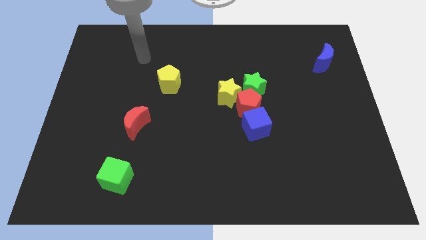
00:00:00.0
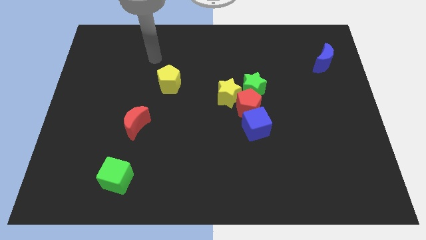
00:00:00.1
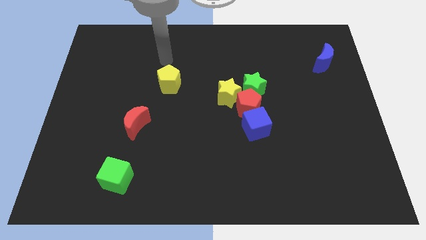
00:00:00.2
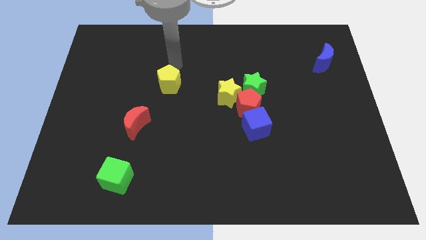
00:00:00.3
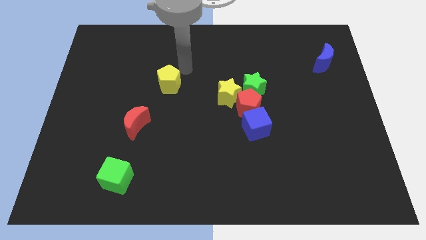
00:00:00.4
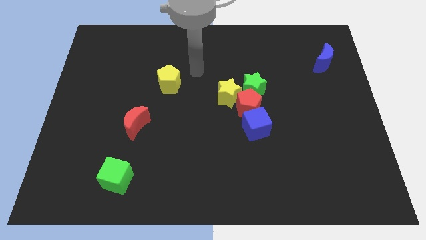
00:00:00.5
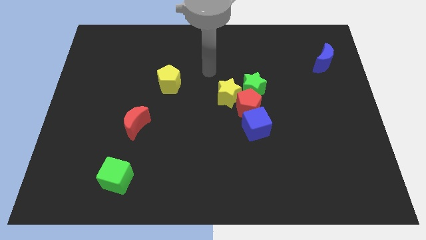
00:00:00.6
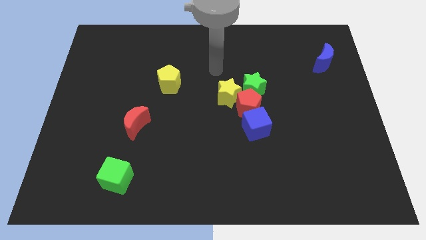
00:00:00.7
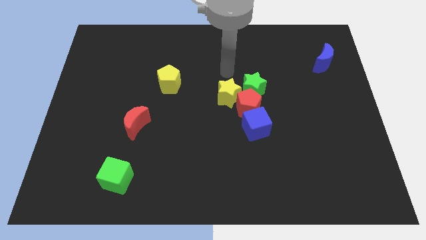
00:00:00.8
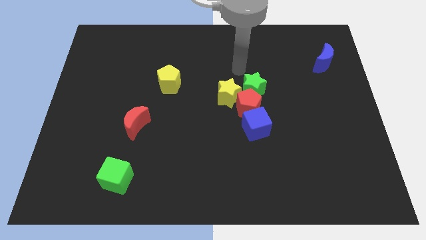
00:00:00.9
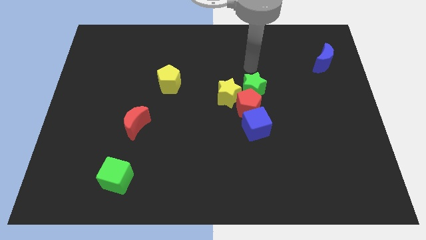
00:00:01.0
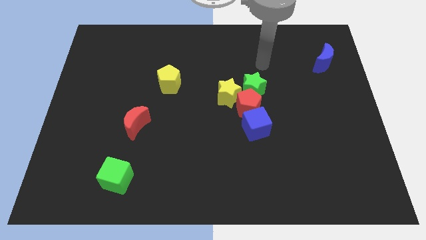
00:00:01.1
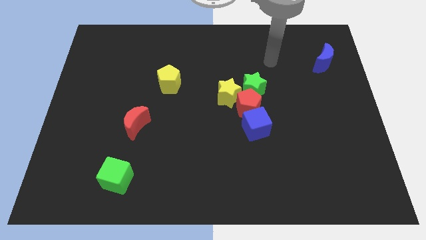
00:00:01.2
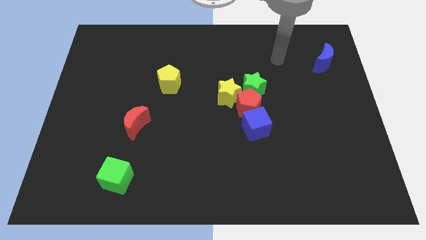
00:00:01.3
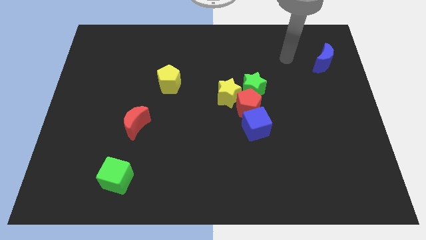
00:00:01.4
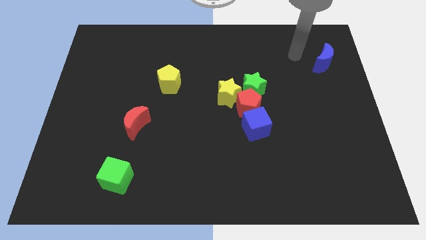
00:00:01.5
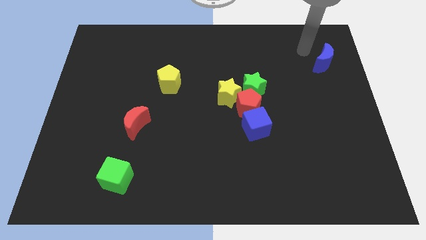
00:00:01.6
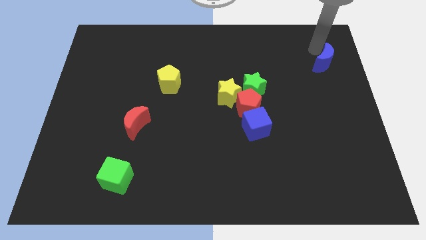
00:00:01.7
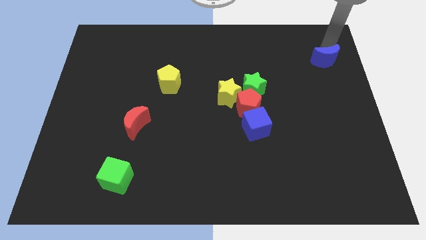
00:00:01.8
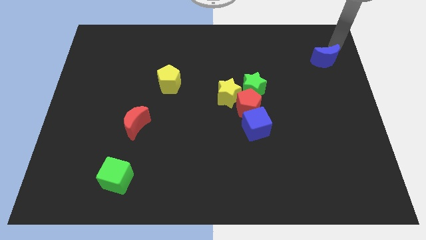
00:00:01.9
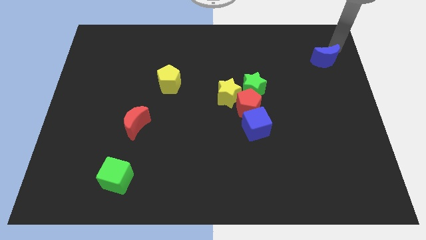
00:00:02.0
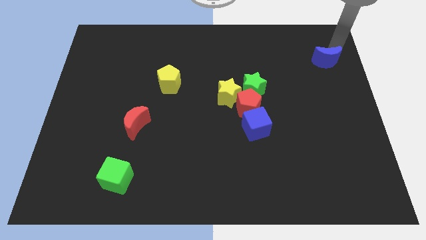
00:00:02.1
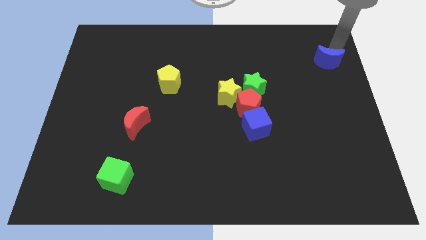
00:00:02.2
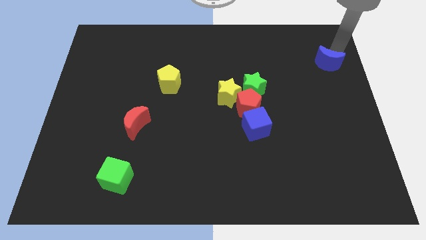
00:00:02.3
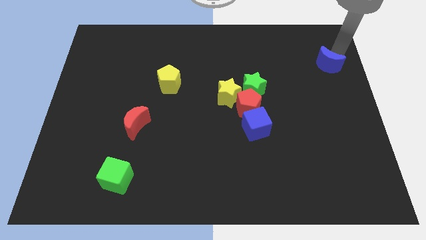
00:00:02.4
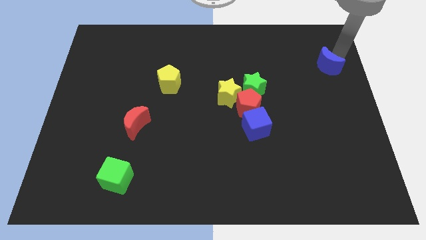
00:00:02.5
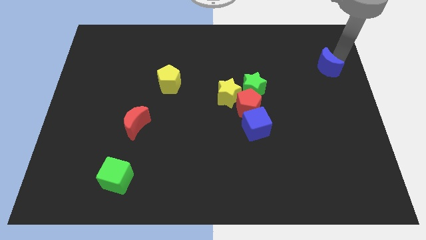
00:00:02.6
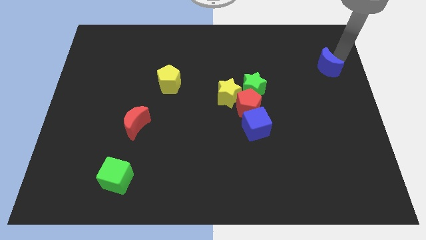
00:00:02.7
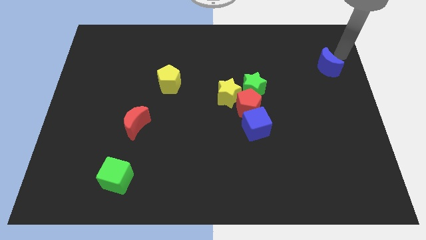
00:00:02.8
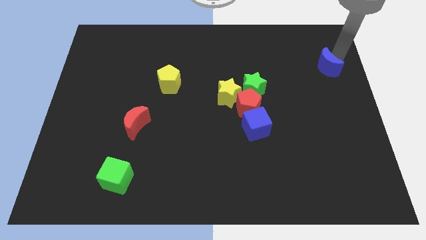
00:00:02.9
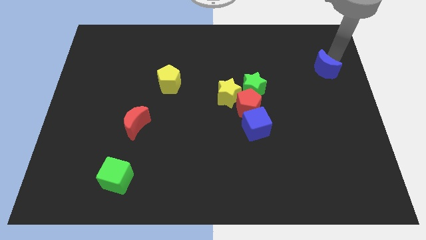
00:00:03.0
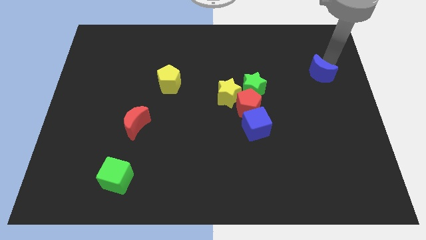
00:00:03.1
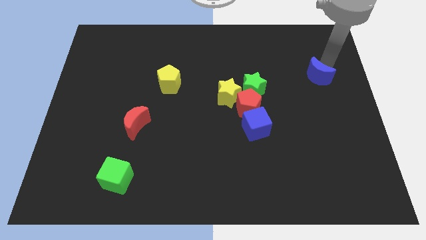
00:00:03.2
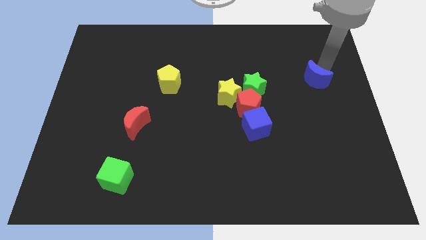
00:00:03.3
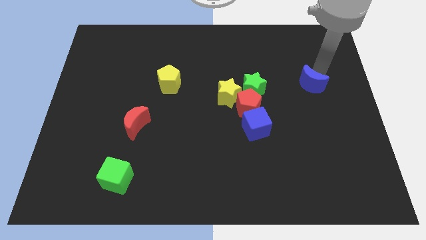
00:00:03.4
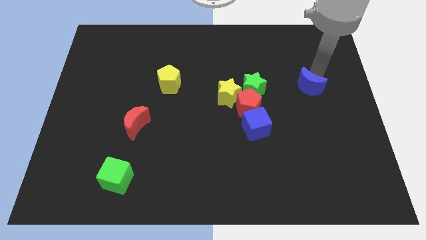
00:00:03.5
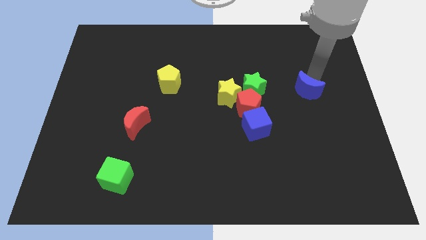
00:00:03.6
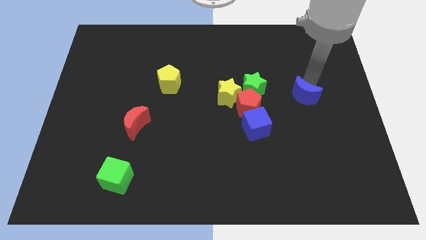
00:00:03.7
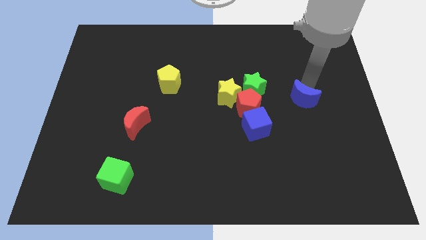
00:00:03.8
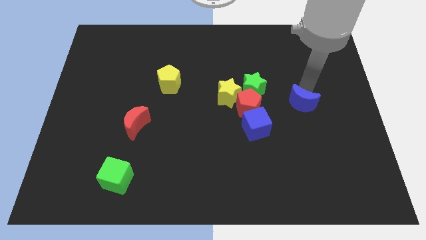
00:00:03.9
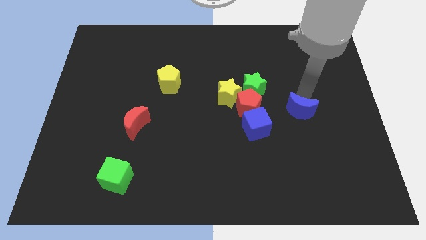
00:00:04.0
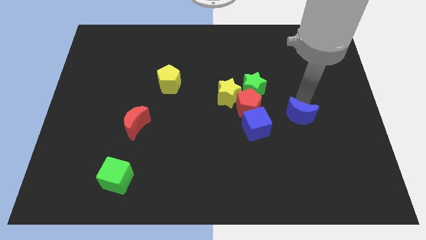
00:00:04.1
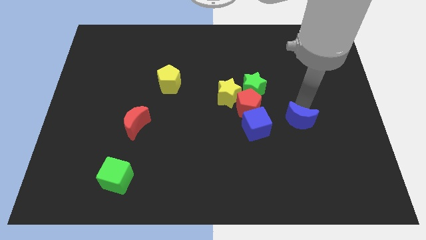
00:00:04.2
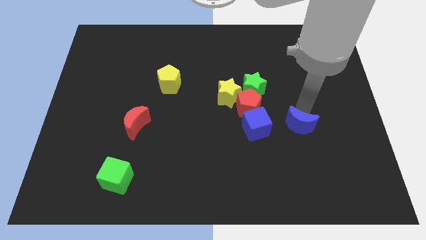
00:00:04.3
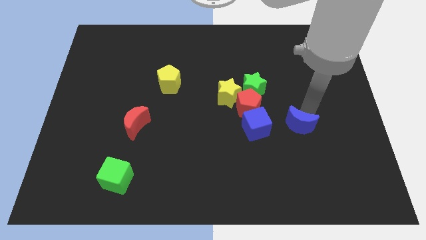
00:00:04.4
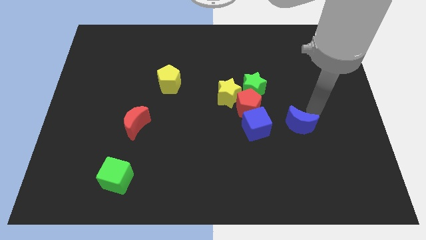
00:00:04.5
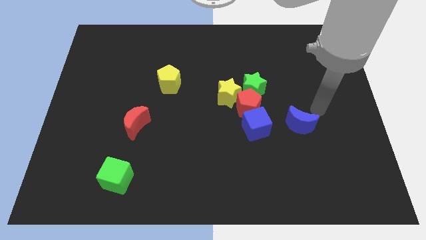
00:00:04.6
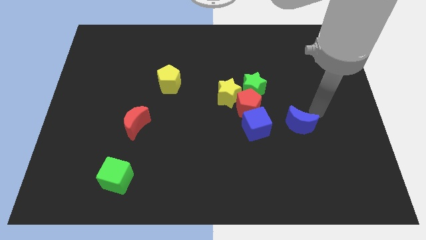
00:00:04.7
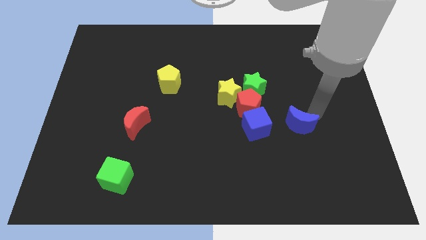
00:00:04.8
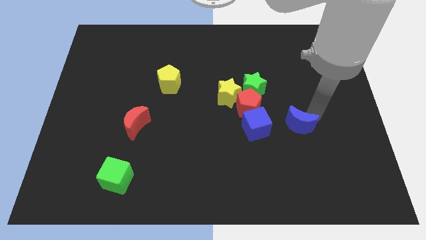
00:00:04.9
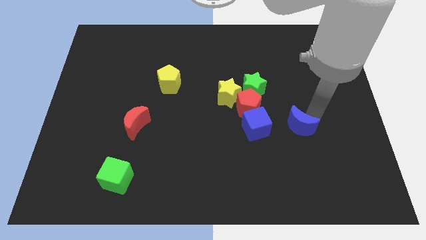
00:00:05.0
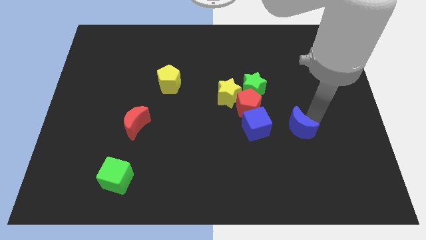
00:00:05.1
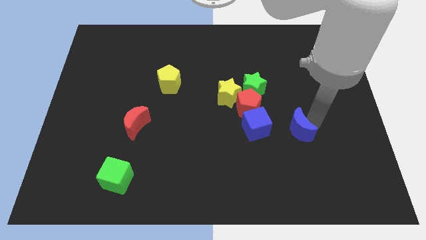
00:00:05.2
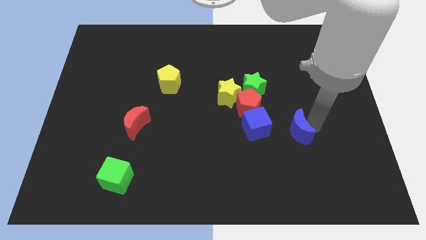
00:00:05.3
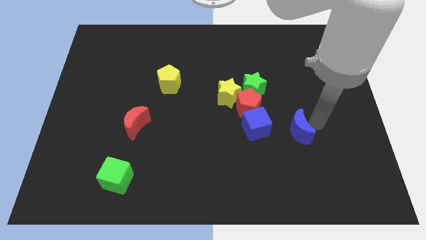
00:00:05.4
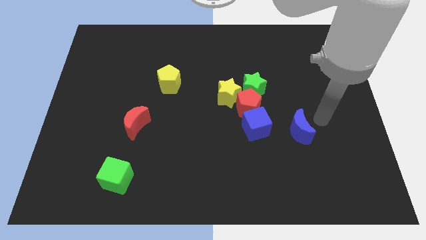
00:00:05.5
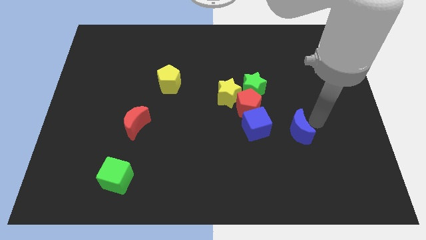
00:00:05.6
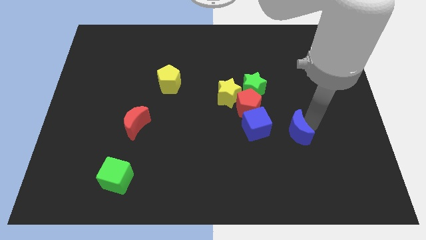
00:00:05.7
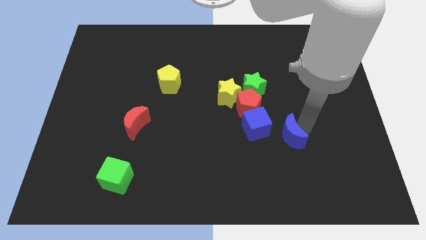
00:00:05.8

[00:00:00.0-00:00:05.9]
move the blue moon downwards and to the left diagonally

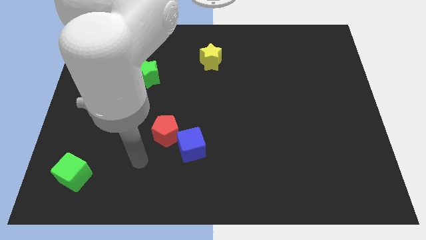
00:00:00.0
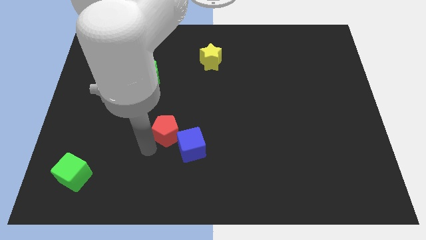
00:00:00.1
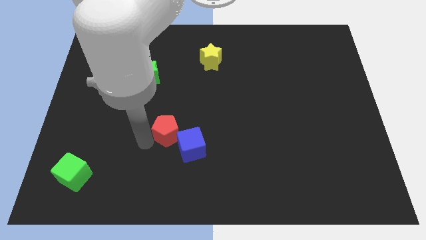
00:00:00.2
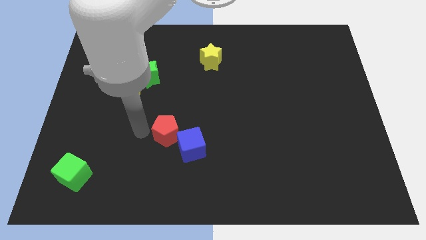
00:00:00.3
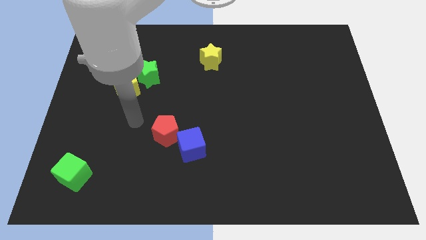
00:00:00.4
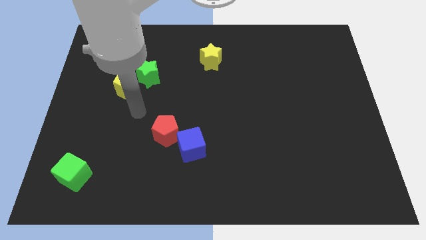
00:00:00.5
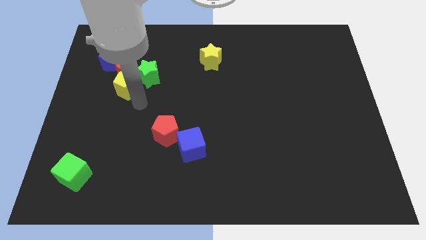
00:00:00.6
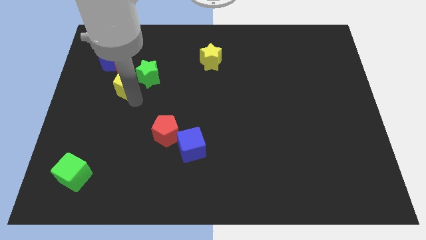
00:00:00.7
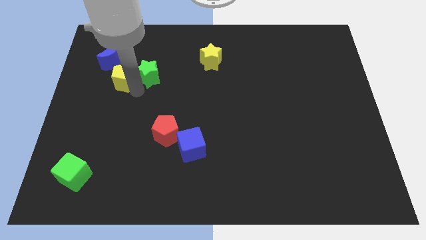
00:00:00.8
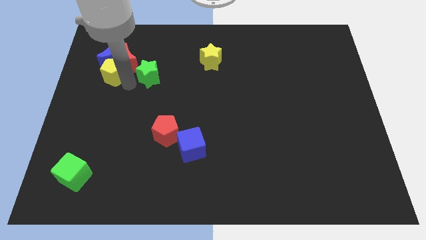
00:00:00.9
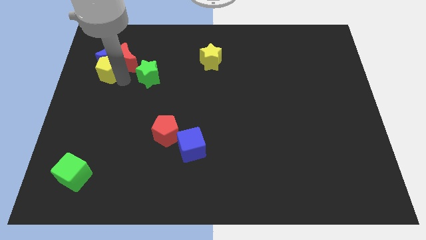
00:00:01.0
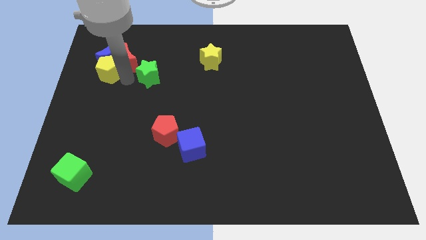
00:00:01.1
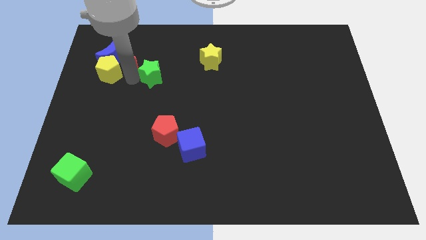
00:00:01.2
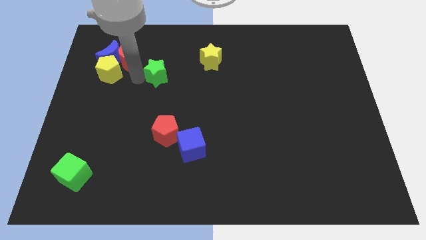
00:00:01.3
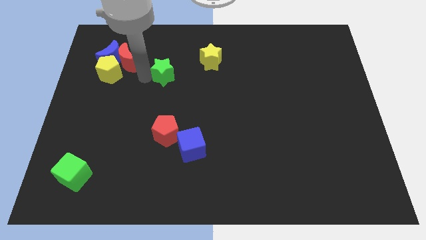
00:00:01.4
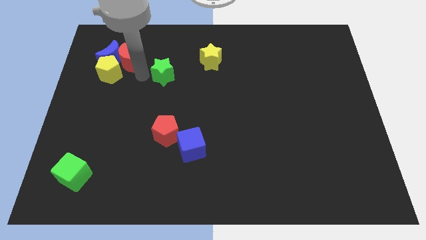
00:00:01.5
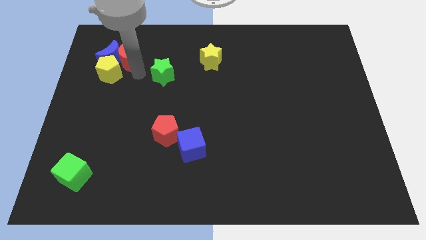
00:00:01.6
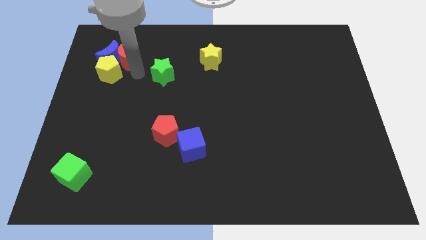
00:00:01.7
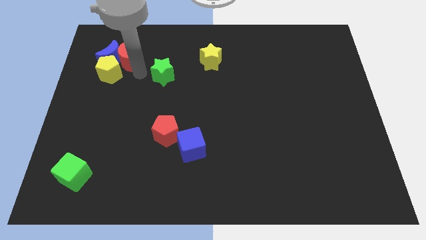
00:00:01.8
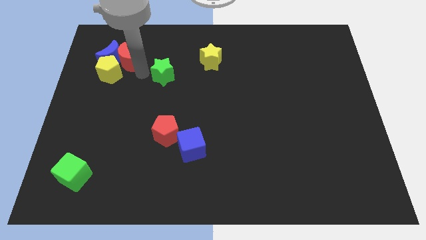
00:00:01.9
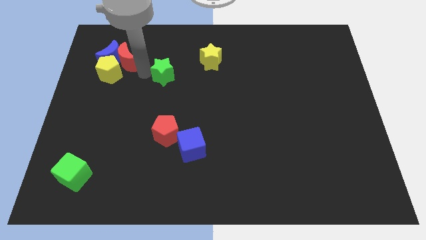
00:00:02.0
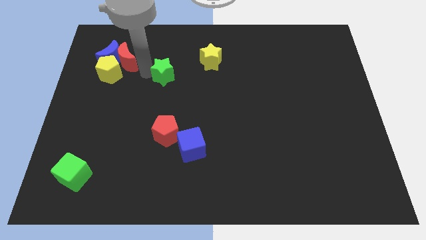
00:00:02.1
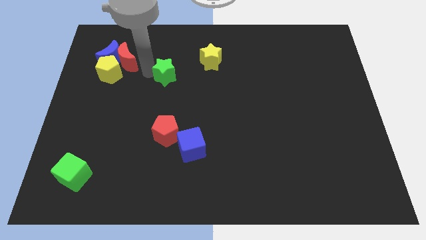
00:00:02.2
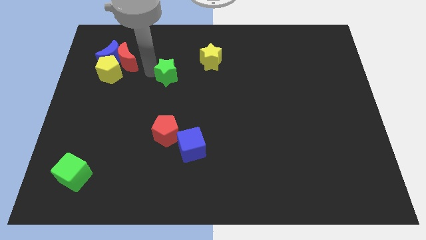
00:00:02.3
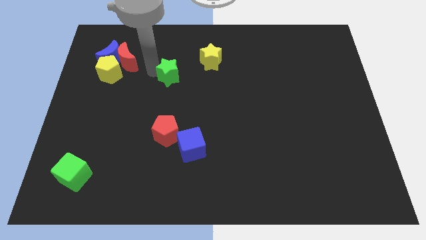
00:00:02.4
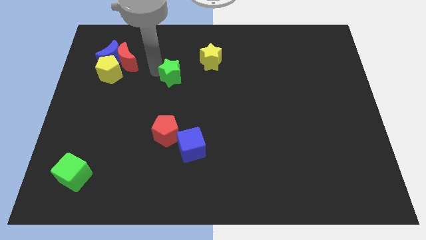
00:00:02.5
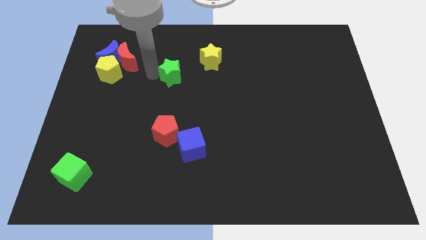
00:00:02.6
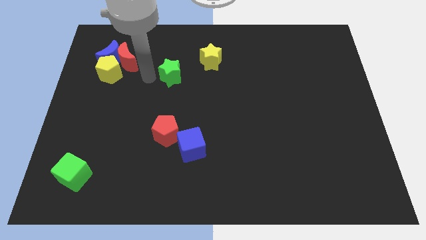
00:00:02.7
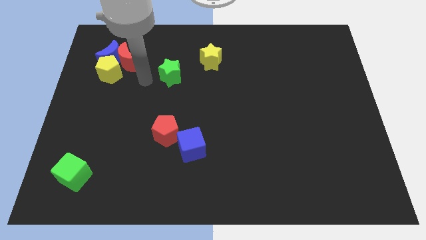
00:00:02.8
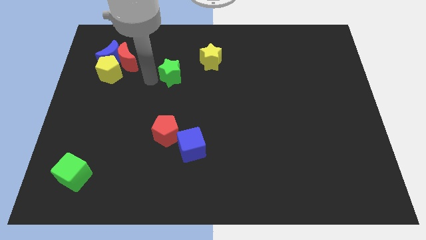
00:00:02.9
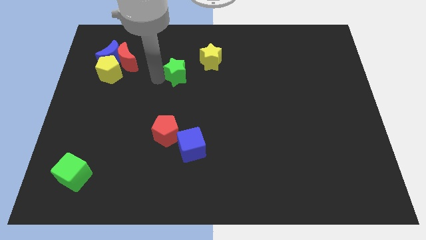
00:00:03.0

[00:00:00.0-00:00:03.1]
slightly slide the green star right
